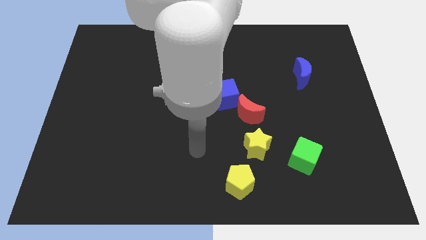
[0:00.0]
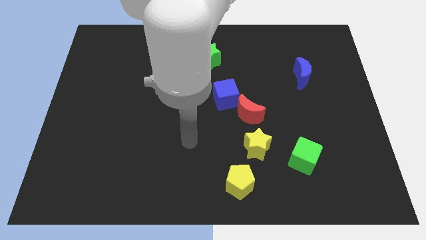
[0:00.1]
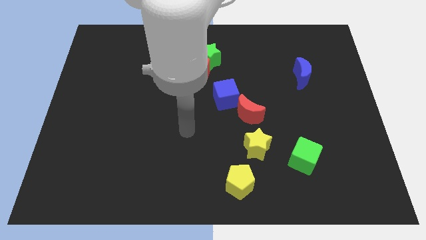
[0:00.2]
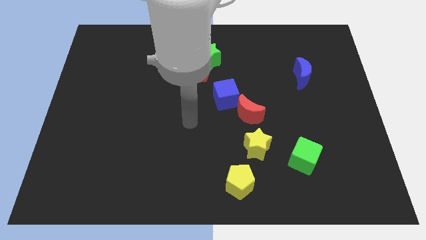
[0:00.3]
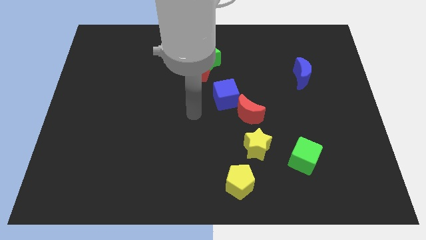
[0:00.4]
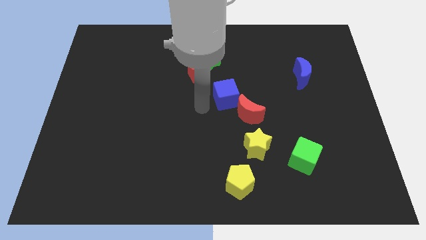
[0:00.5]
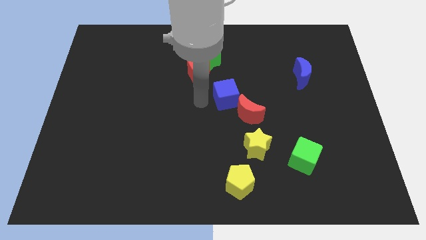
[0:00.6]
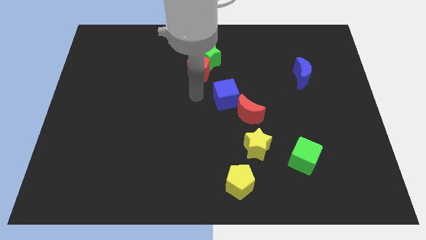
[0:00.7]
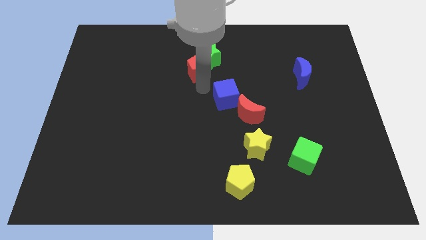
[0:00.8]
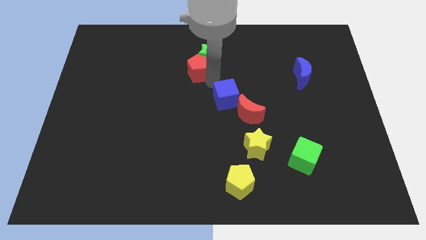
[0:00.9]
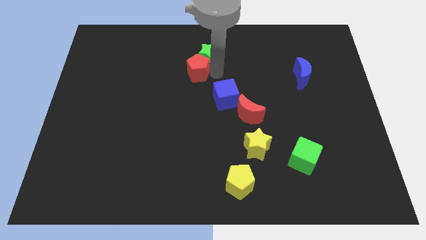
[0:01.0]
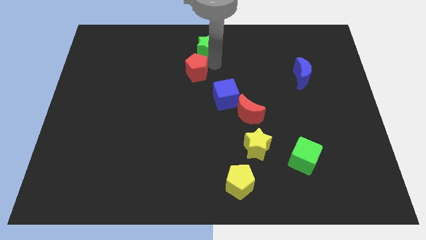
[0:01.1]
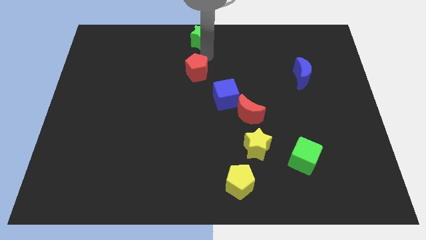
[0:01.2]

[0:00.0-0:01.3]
pull the red pentagon apart from the green star

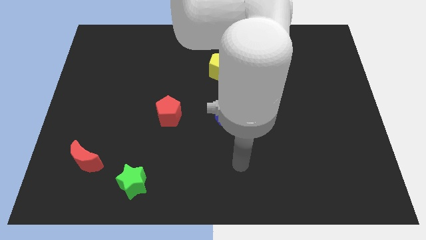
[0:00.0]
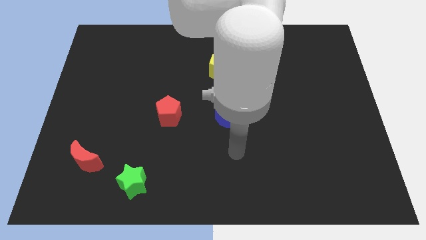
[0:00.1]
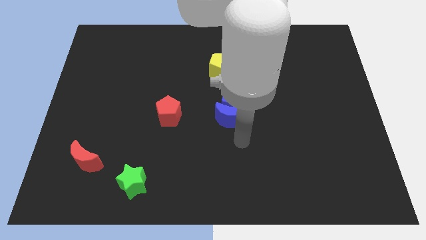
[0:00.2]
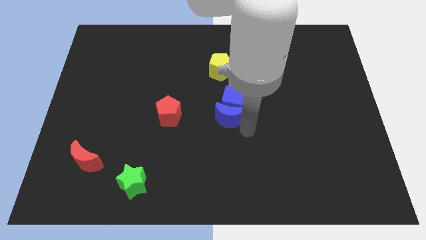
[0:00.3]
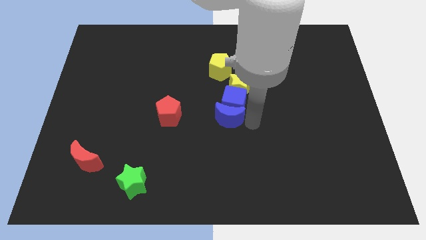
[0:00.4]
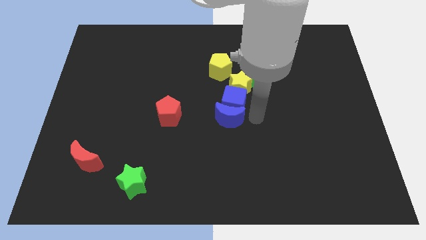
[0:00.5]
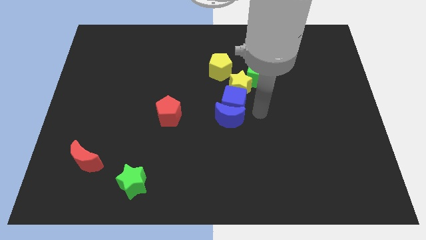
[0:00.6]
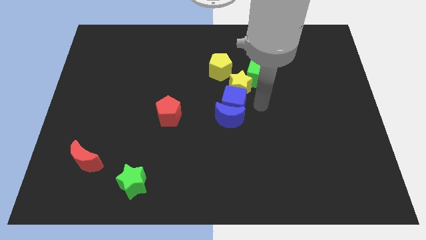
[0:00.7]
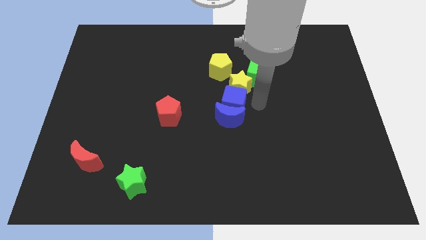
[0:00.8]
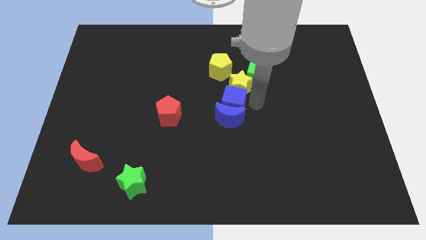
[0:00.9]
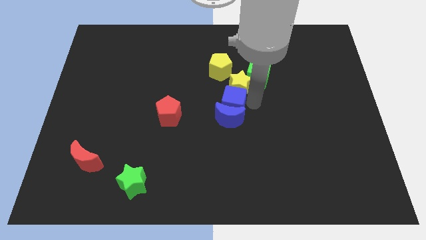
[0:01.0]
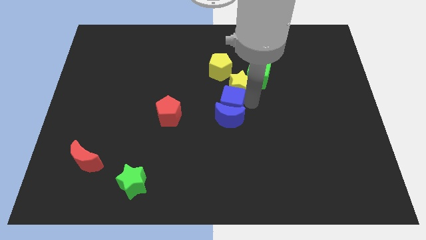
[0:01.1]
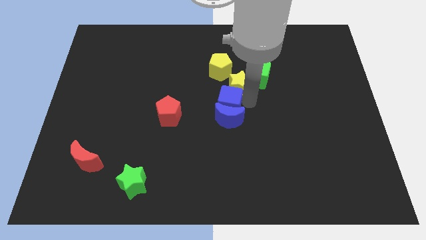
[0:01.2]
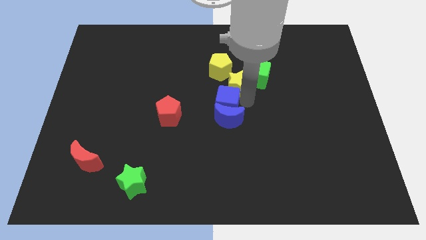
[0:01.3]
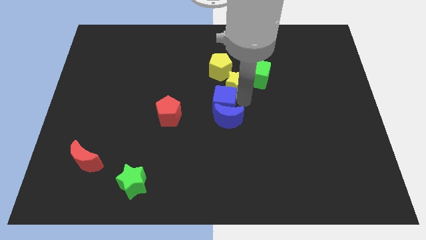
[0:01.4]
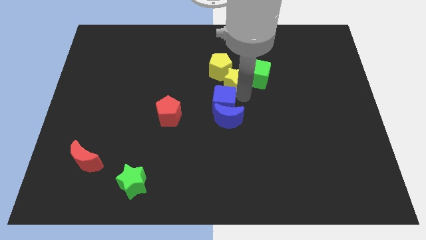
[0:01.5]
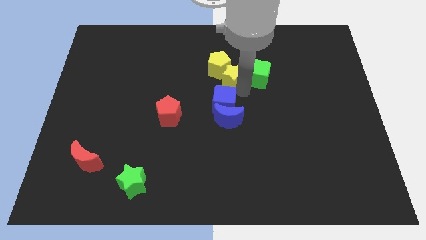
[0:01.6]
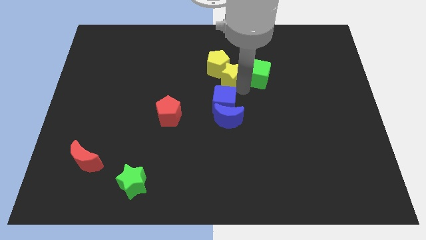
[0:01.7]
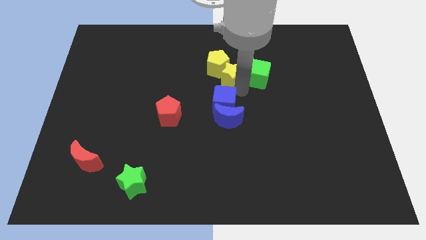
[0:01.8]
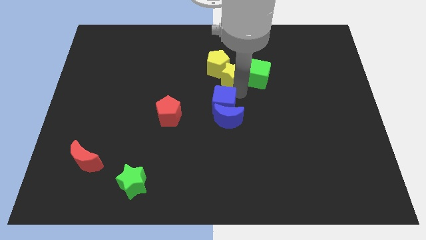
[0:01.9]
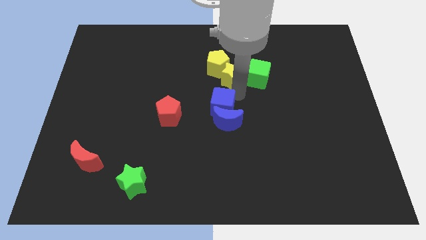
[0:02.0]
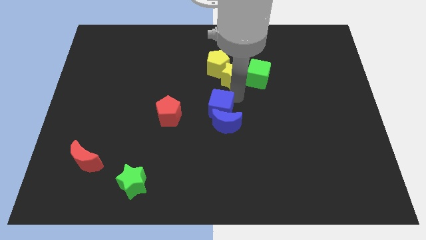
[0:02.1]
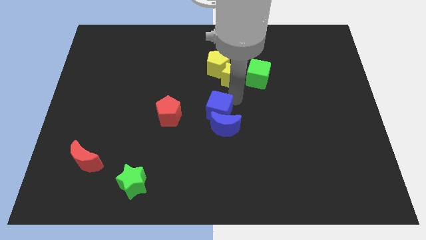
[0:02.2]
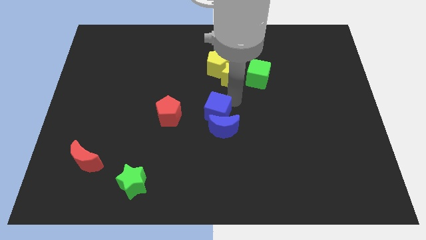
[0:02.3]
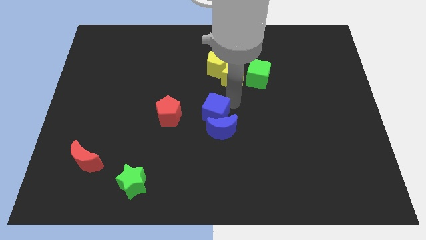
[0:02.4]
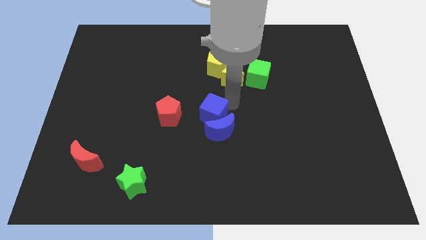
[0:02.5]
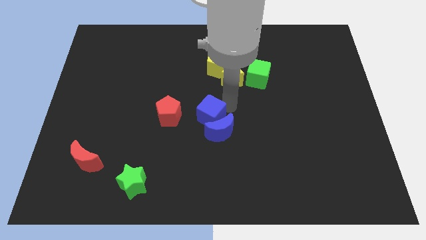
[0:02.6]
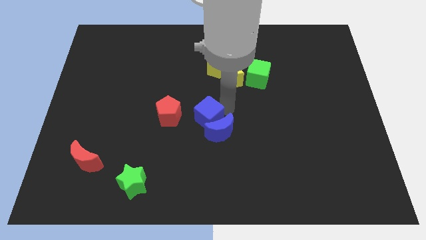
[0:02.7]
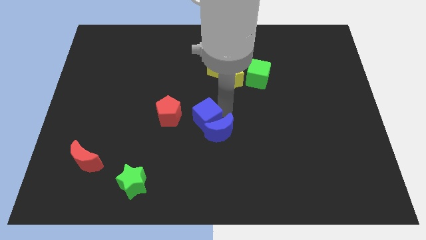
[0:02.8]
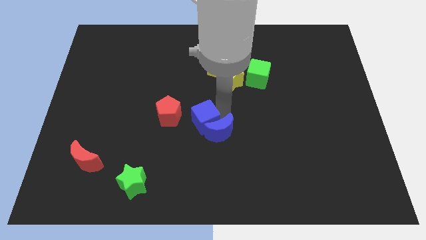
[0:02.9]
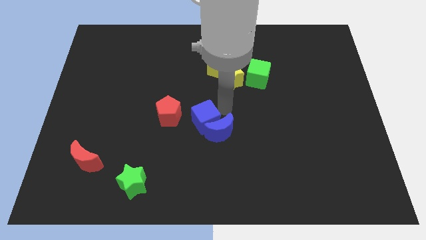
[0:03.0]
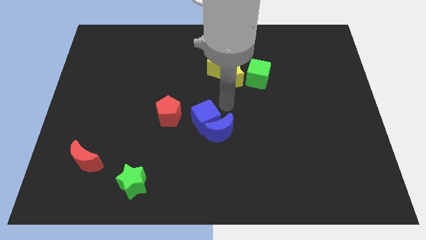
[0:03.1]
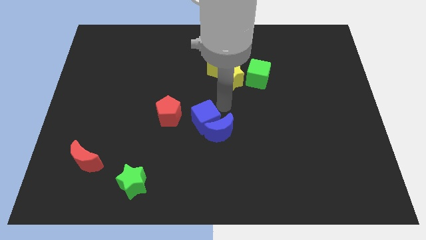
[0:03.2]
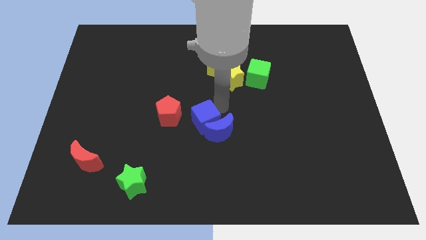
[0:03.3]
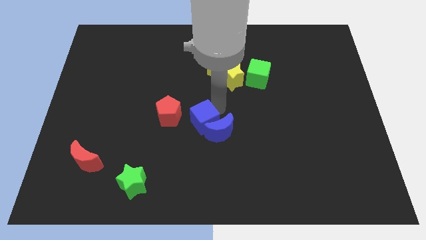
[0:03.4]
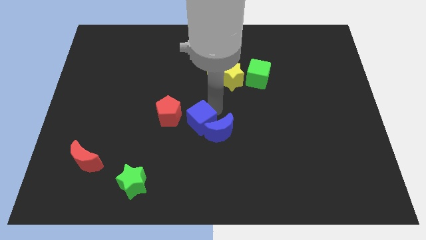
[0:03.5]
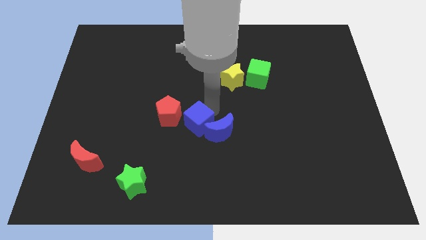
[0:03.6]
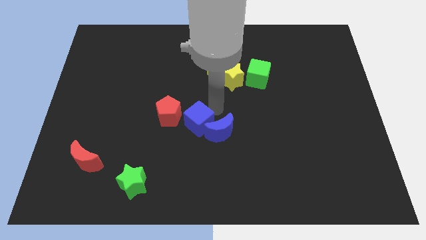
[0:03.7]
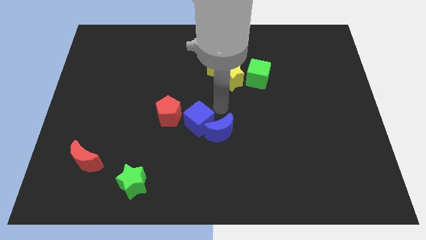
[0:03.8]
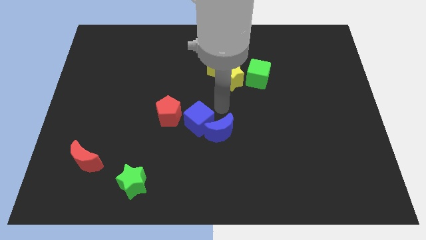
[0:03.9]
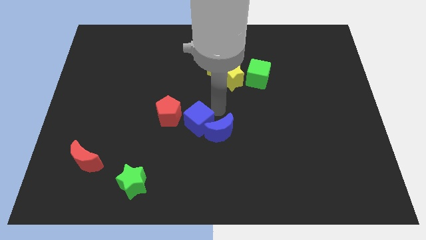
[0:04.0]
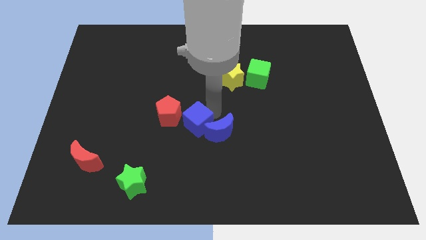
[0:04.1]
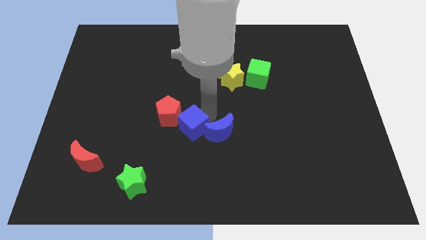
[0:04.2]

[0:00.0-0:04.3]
pull the blue cube apart from the blue moon and yellow star

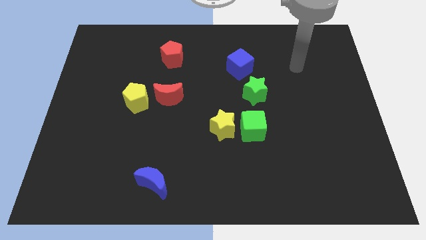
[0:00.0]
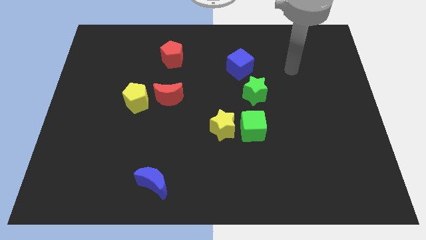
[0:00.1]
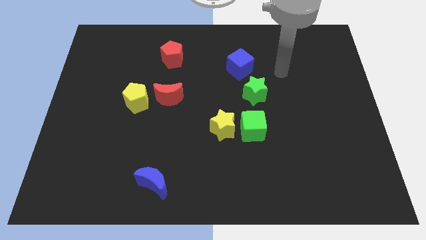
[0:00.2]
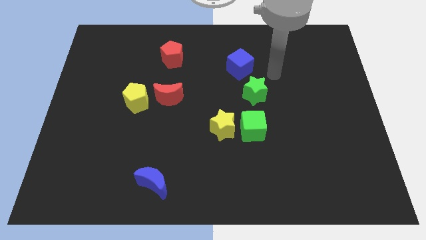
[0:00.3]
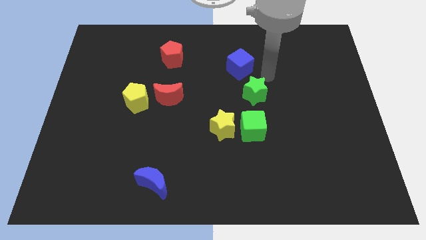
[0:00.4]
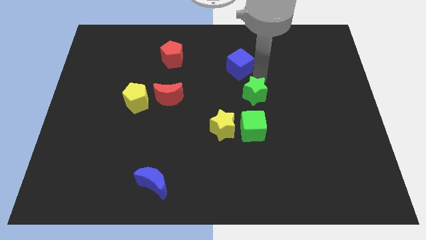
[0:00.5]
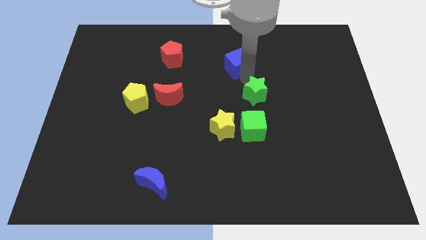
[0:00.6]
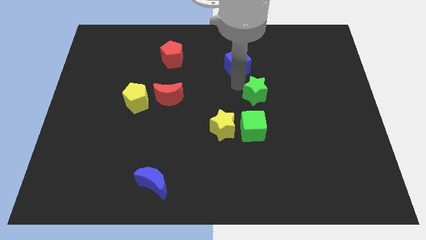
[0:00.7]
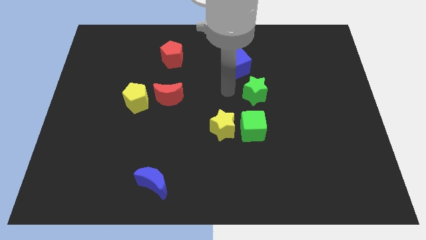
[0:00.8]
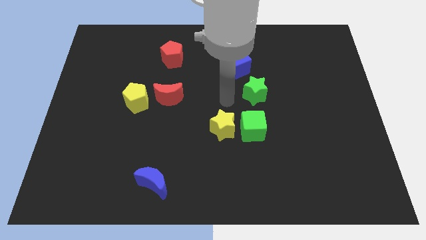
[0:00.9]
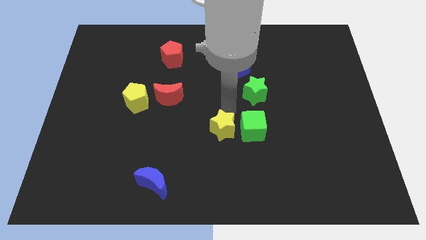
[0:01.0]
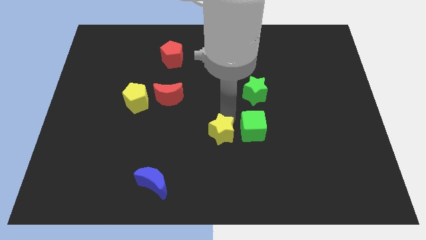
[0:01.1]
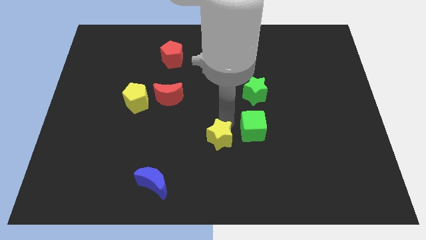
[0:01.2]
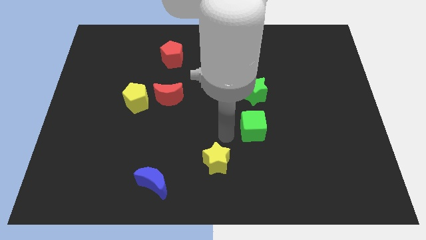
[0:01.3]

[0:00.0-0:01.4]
move the green cube away from the yellow star

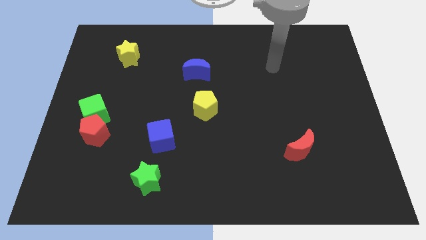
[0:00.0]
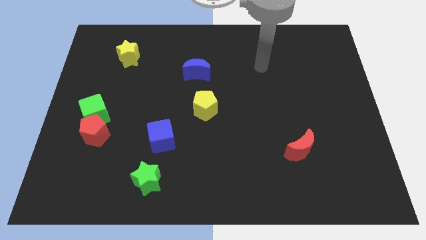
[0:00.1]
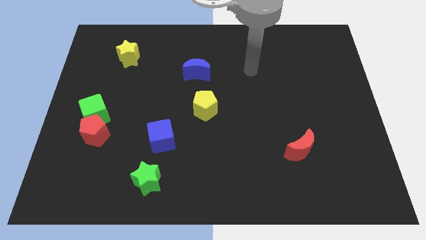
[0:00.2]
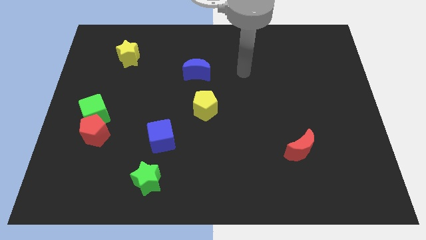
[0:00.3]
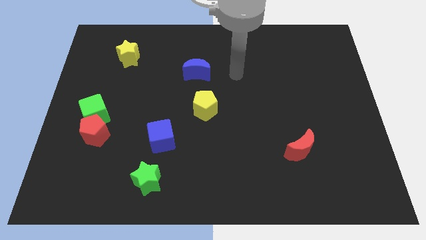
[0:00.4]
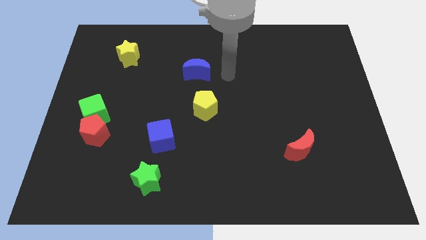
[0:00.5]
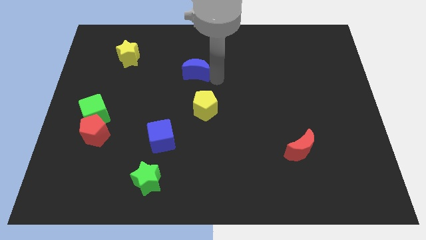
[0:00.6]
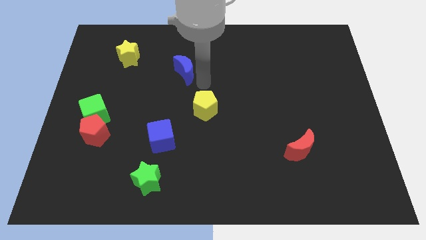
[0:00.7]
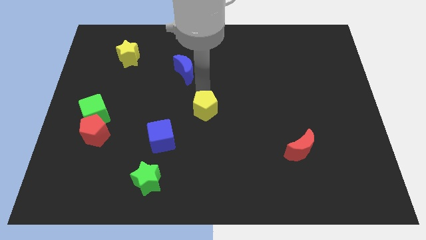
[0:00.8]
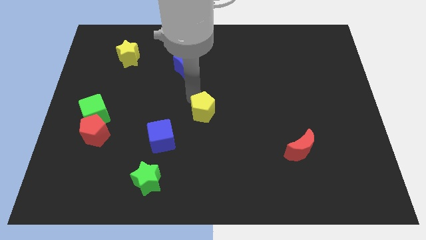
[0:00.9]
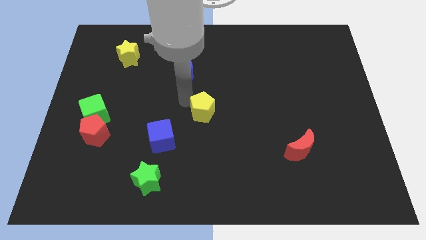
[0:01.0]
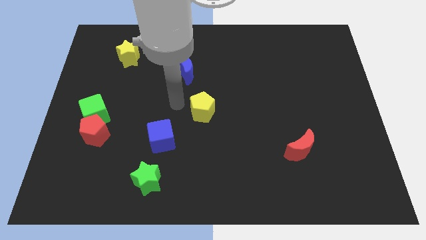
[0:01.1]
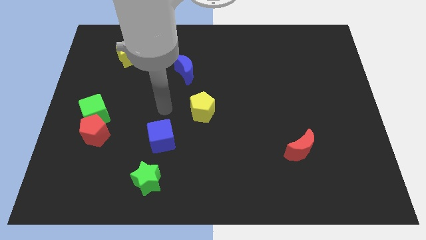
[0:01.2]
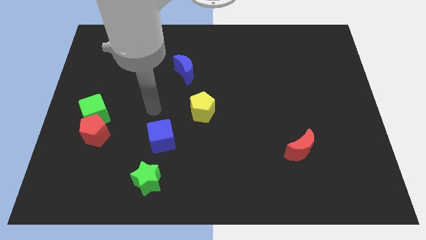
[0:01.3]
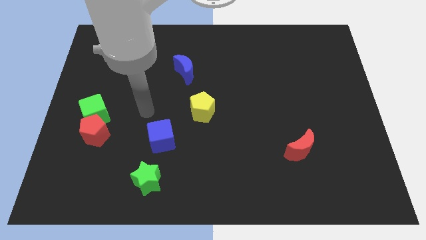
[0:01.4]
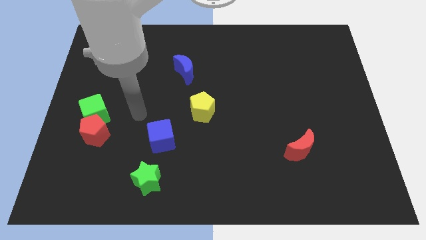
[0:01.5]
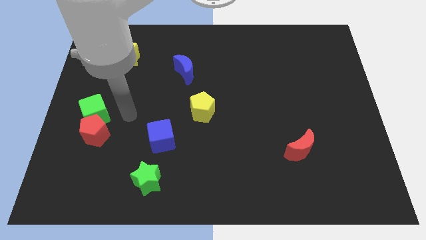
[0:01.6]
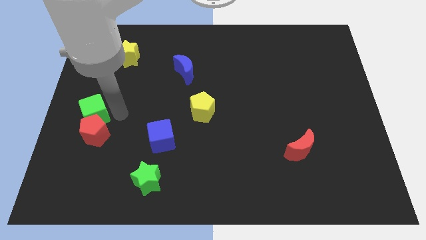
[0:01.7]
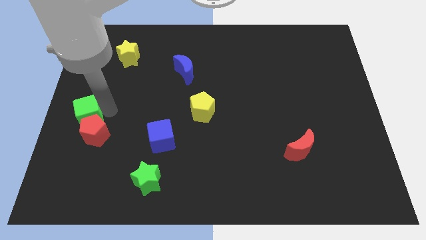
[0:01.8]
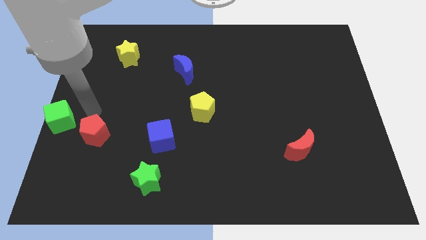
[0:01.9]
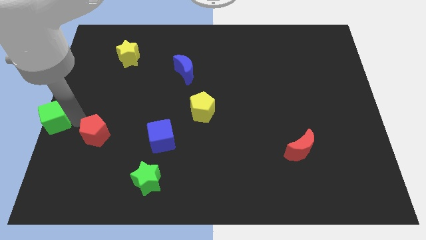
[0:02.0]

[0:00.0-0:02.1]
move the red pentagon away from the green cube

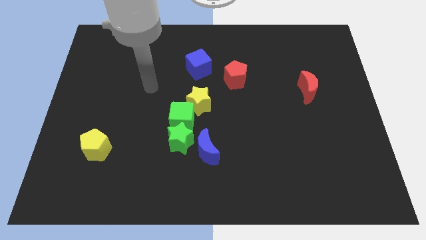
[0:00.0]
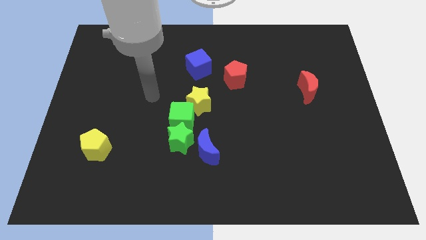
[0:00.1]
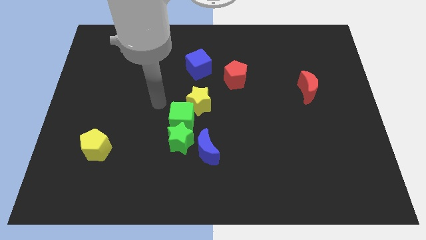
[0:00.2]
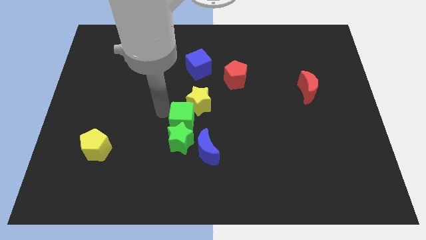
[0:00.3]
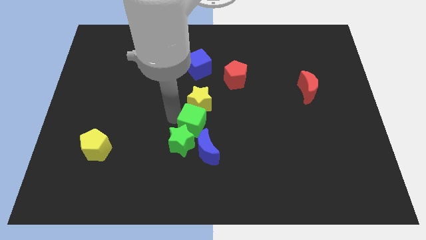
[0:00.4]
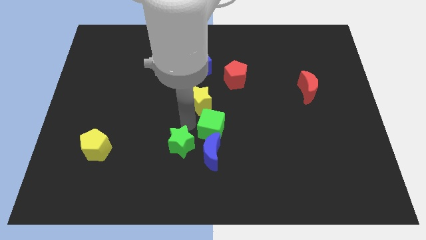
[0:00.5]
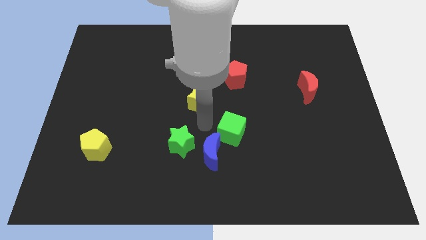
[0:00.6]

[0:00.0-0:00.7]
pull the yellow star apart from the green cube
